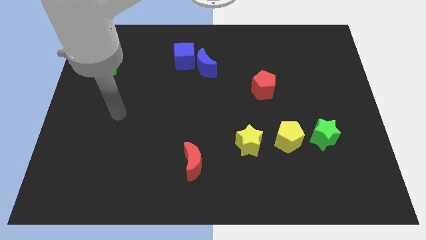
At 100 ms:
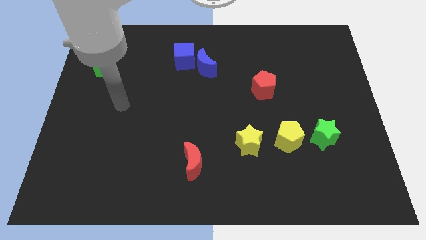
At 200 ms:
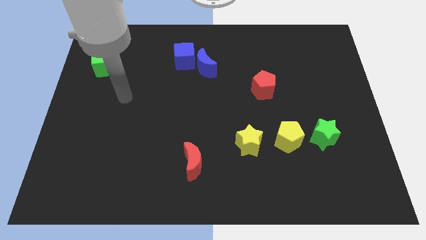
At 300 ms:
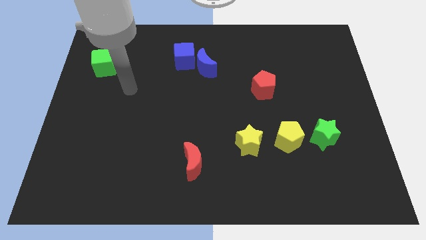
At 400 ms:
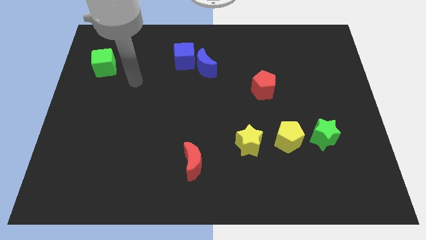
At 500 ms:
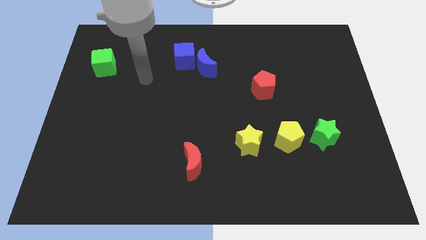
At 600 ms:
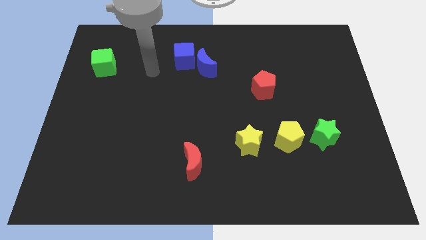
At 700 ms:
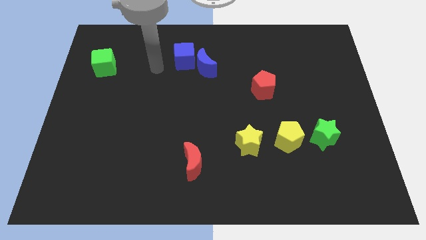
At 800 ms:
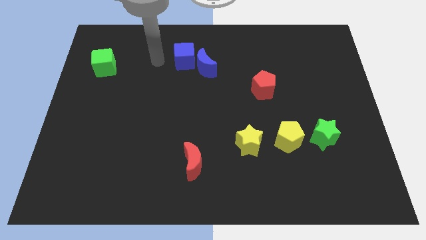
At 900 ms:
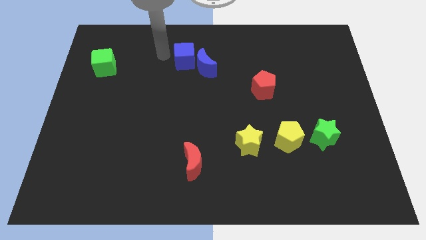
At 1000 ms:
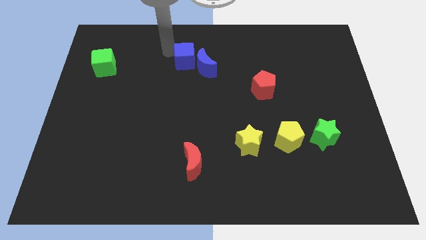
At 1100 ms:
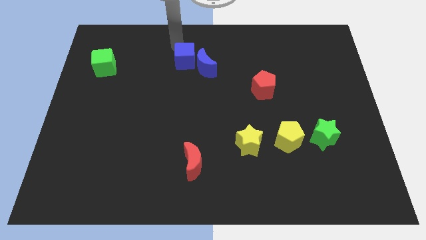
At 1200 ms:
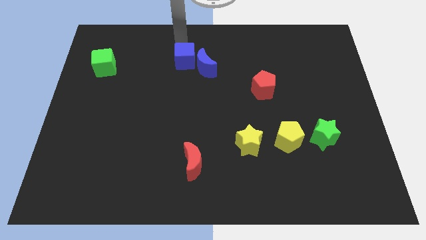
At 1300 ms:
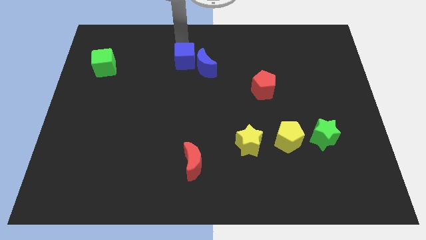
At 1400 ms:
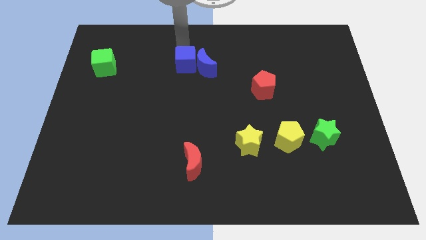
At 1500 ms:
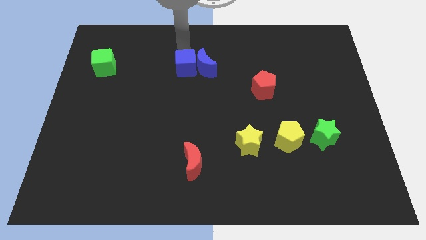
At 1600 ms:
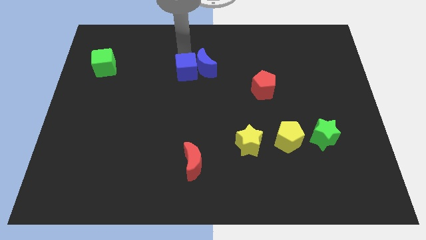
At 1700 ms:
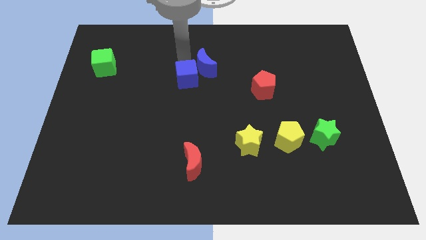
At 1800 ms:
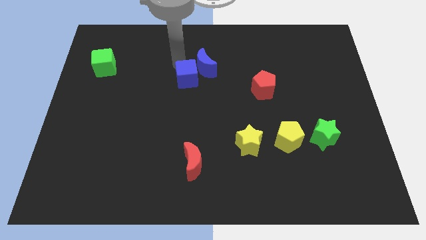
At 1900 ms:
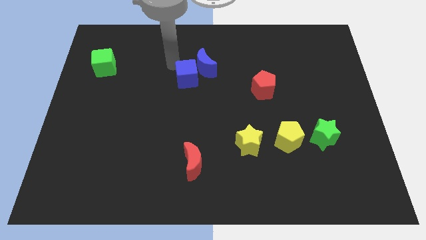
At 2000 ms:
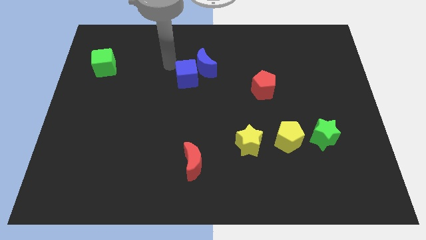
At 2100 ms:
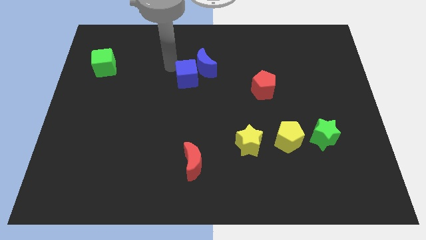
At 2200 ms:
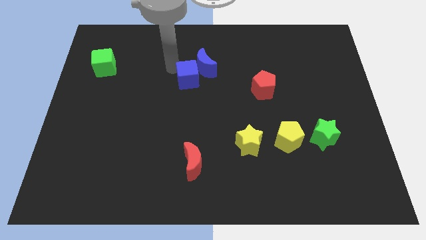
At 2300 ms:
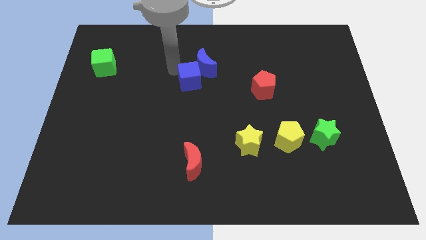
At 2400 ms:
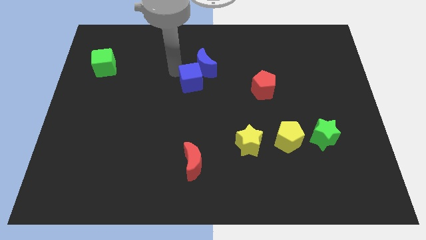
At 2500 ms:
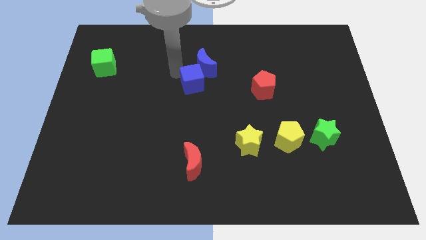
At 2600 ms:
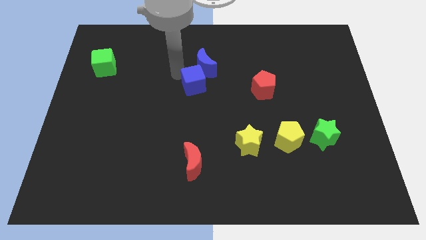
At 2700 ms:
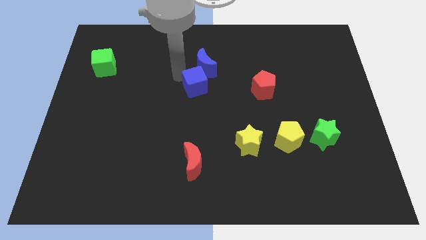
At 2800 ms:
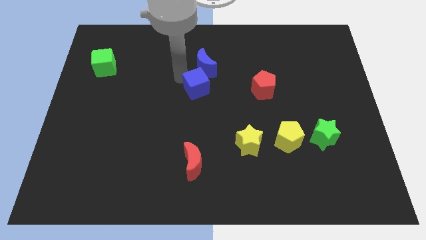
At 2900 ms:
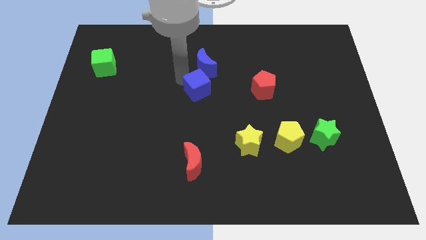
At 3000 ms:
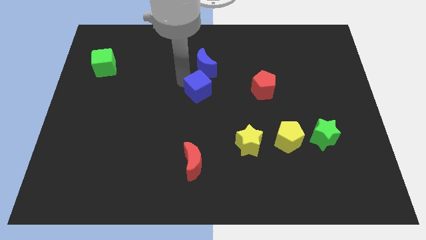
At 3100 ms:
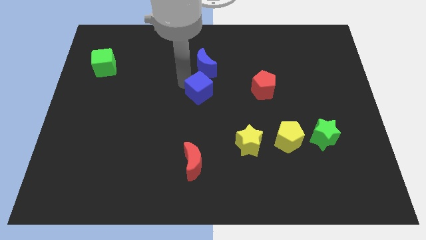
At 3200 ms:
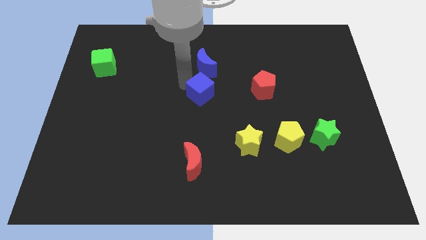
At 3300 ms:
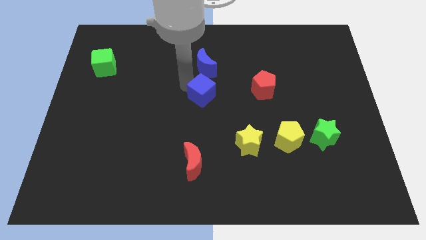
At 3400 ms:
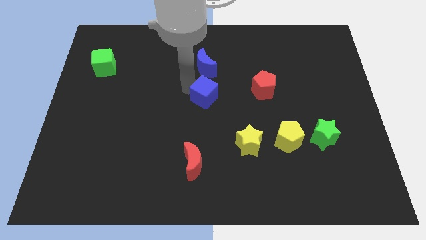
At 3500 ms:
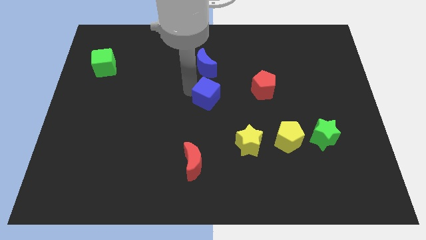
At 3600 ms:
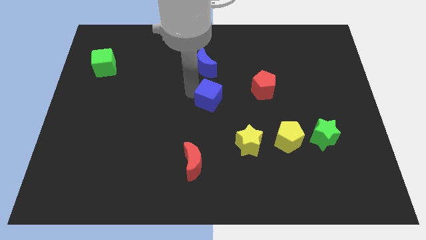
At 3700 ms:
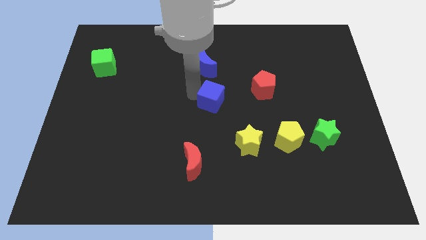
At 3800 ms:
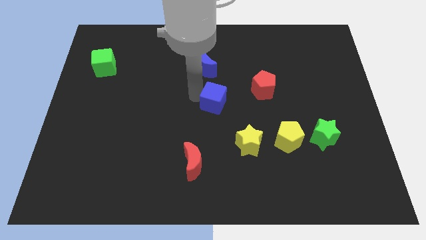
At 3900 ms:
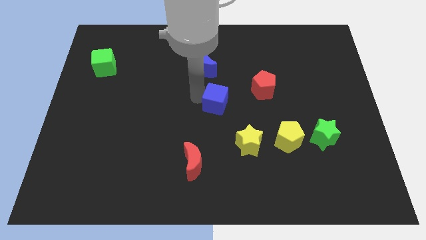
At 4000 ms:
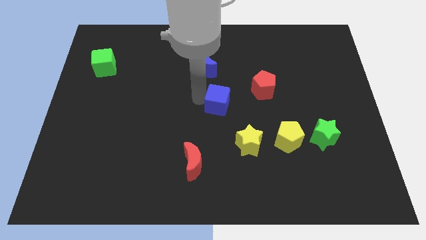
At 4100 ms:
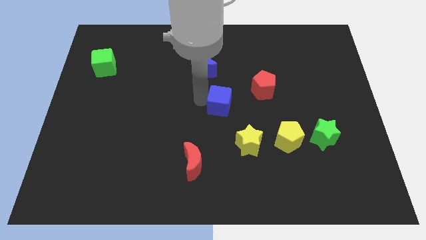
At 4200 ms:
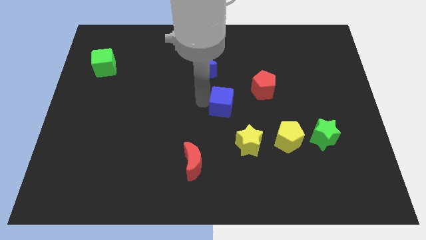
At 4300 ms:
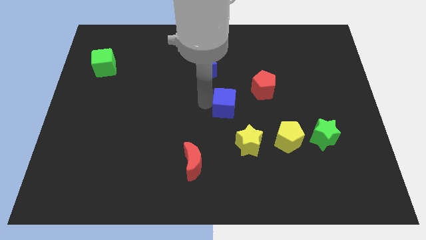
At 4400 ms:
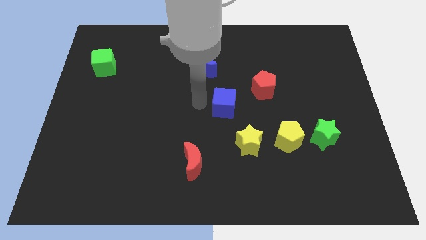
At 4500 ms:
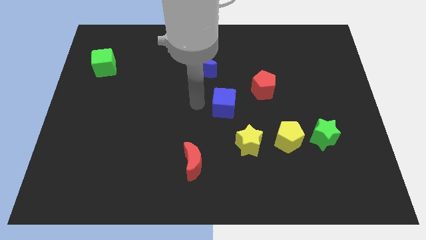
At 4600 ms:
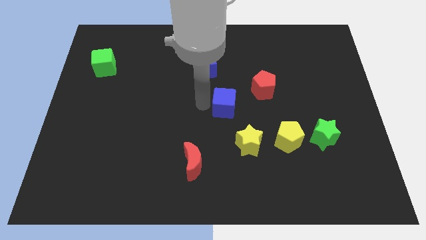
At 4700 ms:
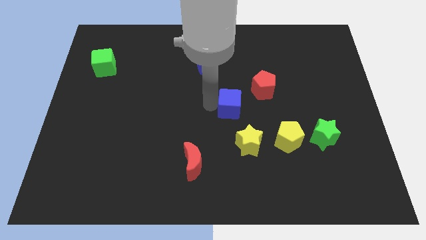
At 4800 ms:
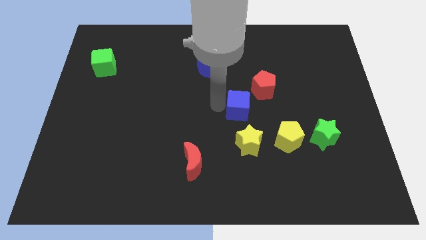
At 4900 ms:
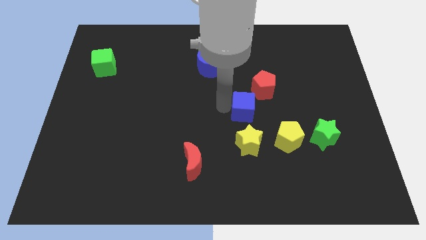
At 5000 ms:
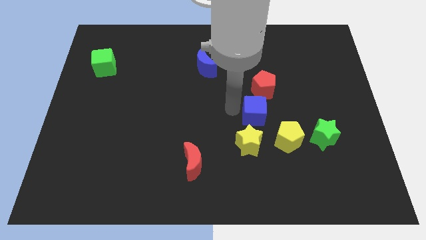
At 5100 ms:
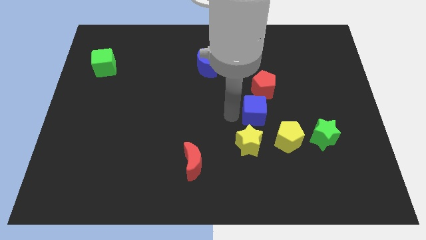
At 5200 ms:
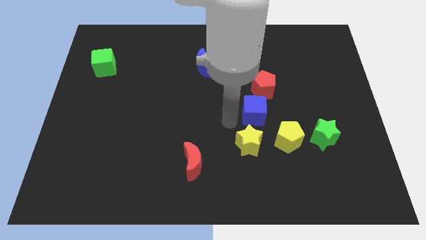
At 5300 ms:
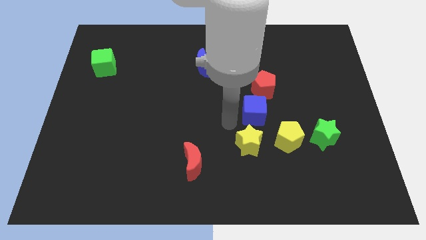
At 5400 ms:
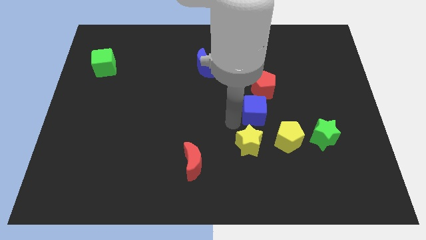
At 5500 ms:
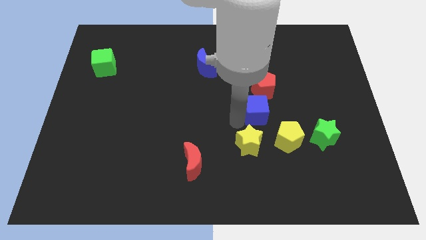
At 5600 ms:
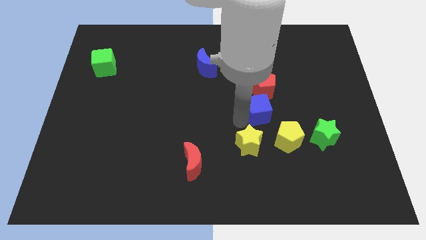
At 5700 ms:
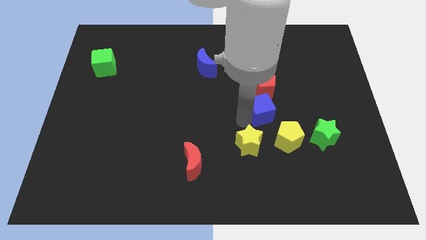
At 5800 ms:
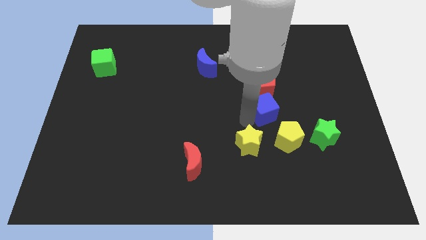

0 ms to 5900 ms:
slide the blue cube to the top of the yellow pentagon

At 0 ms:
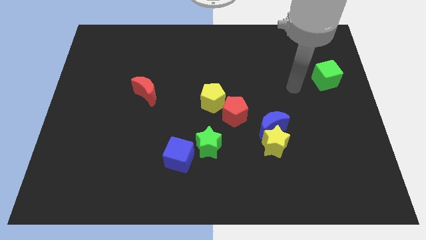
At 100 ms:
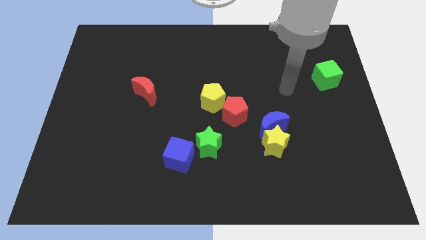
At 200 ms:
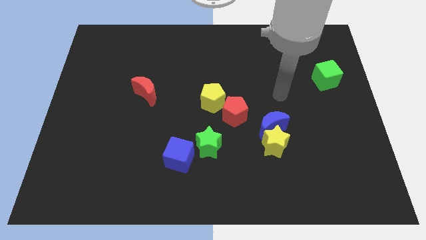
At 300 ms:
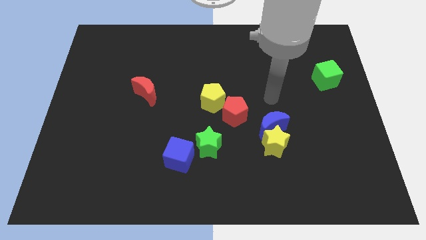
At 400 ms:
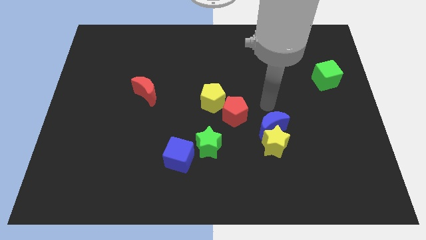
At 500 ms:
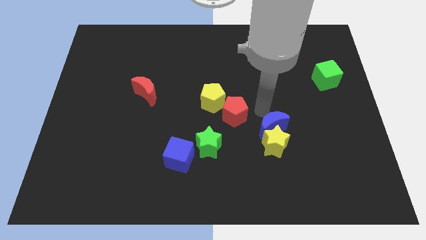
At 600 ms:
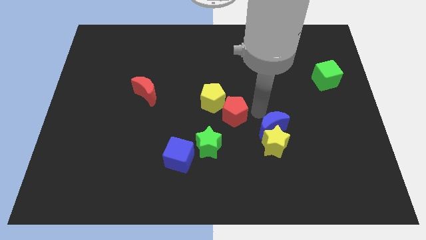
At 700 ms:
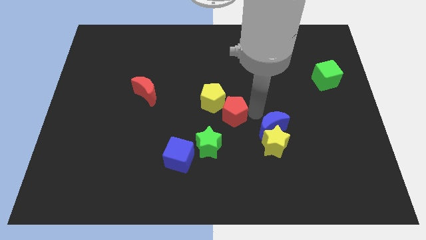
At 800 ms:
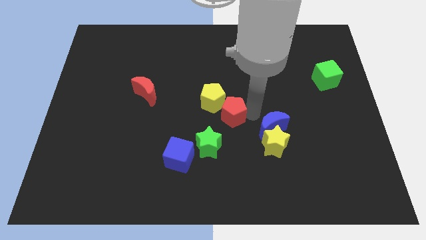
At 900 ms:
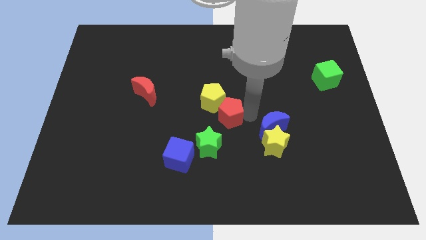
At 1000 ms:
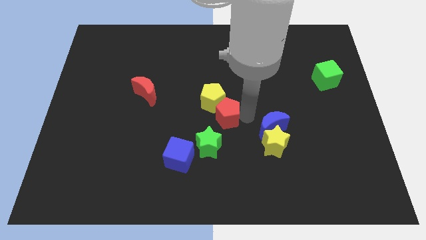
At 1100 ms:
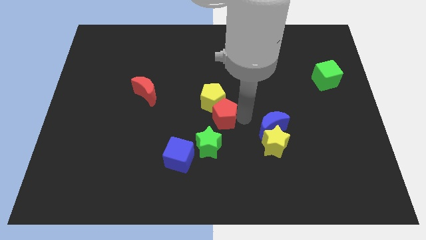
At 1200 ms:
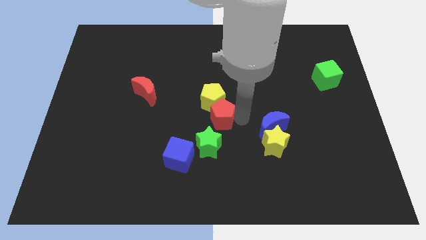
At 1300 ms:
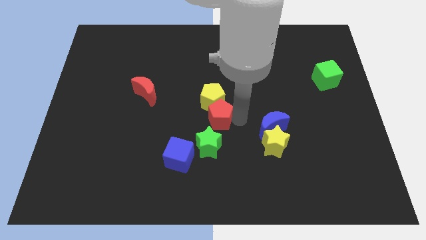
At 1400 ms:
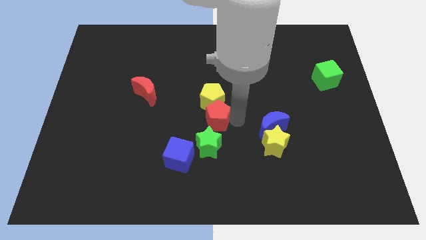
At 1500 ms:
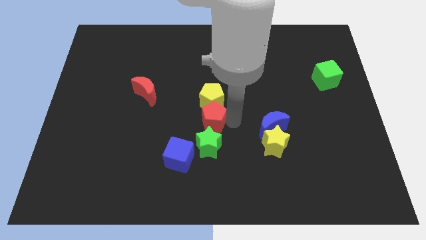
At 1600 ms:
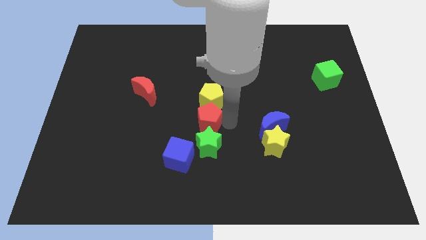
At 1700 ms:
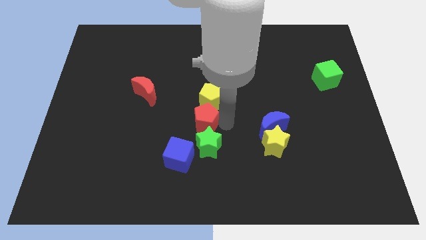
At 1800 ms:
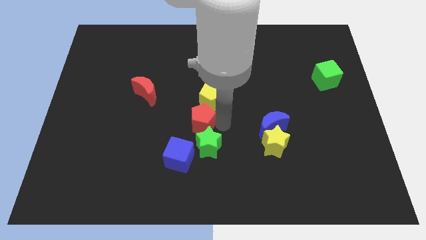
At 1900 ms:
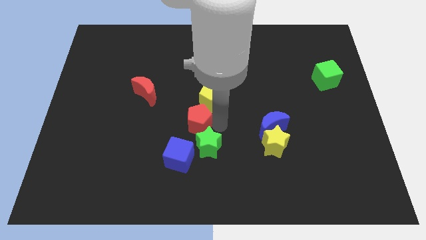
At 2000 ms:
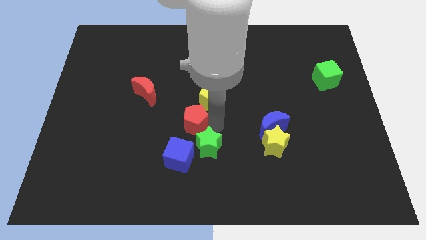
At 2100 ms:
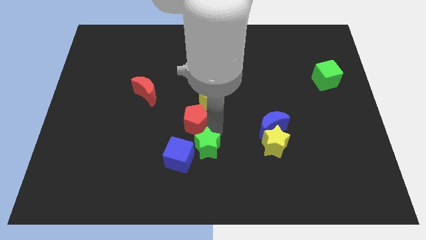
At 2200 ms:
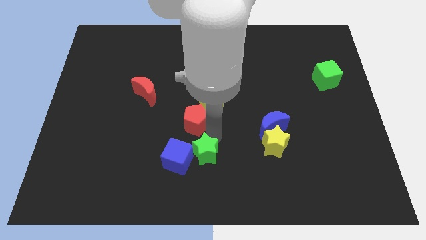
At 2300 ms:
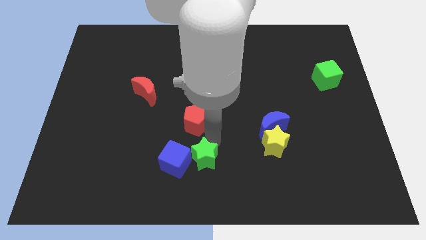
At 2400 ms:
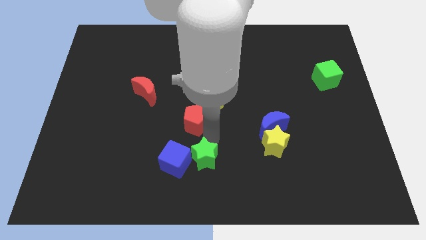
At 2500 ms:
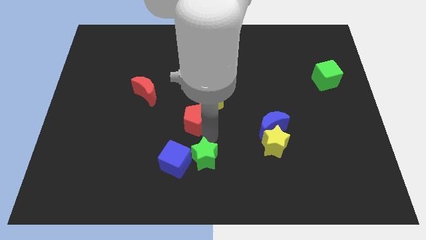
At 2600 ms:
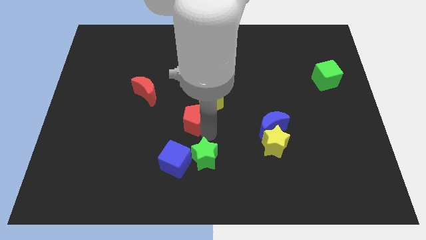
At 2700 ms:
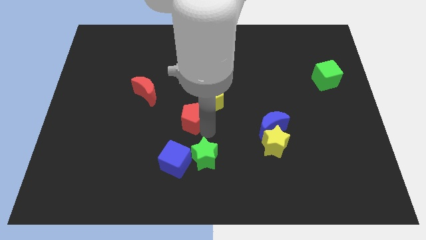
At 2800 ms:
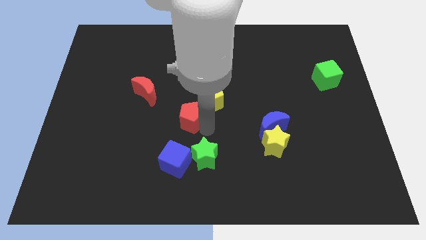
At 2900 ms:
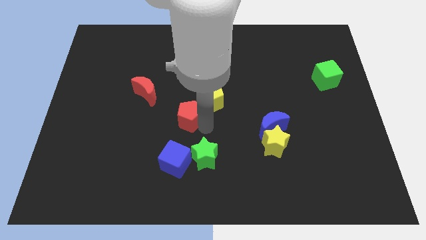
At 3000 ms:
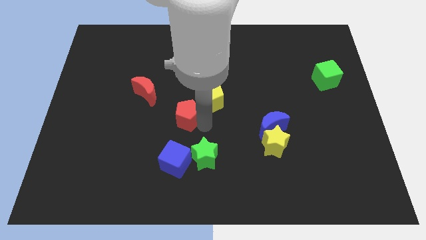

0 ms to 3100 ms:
put the red pentagon to the bottom right of the red moon
